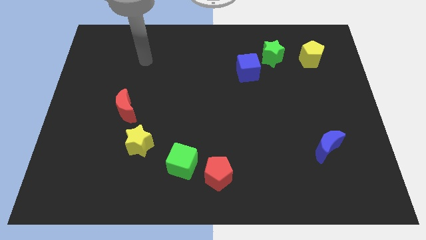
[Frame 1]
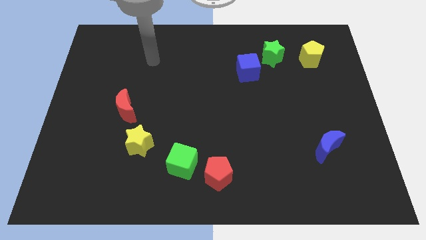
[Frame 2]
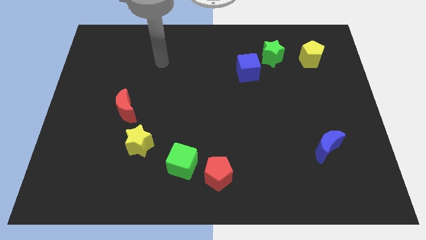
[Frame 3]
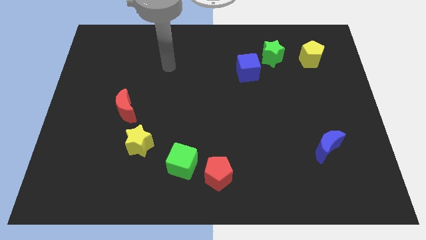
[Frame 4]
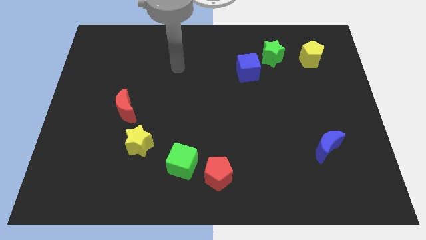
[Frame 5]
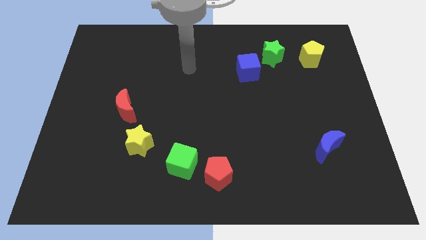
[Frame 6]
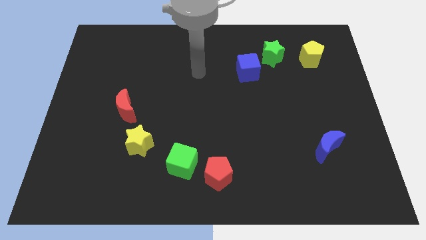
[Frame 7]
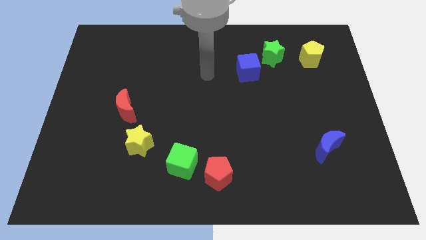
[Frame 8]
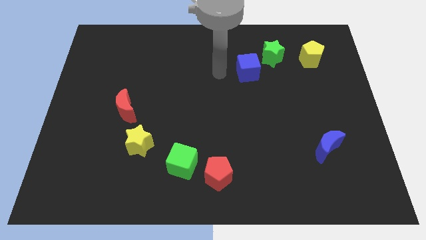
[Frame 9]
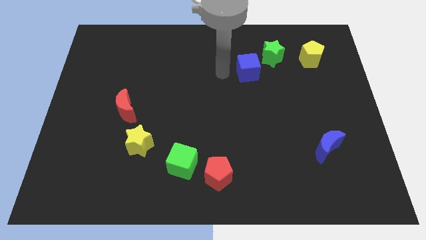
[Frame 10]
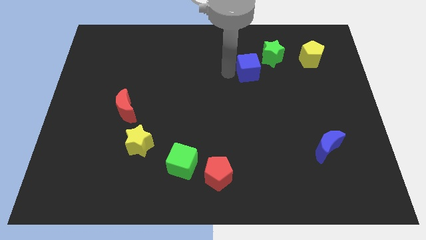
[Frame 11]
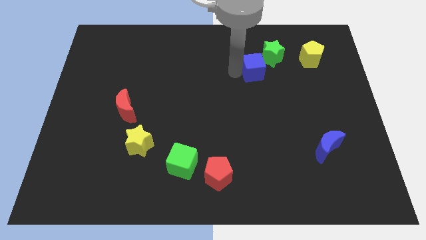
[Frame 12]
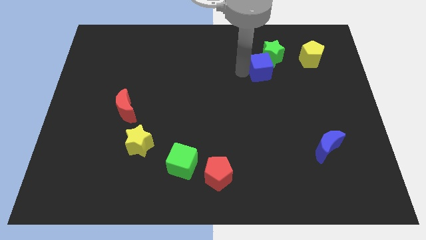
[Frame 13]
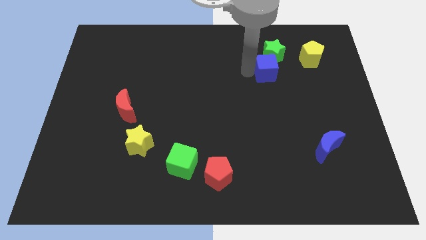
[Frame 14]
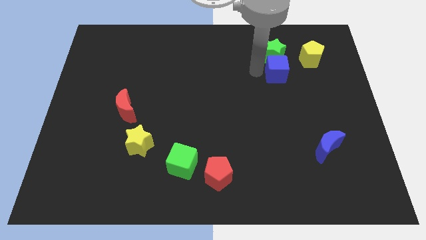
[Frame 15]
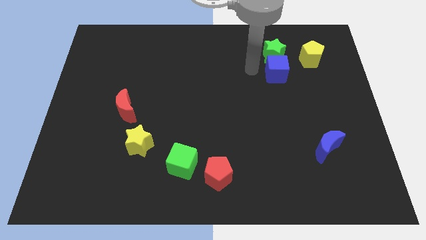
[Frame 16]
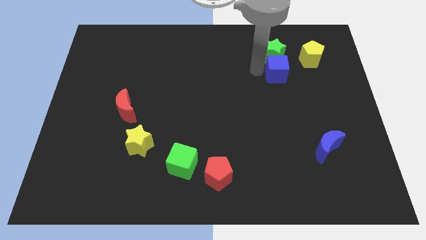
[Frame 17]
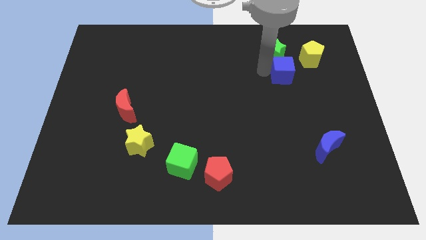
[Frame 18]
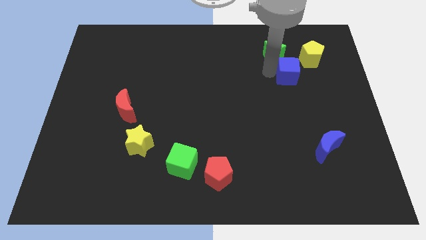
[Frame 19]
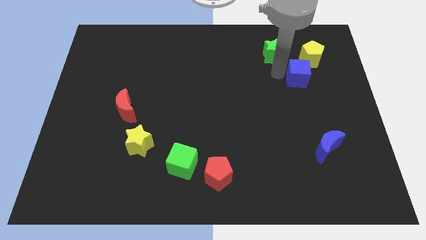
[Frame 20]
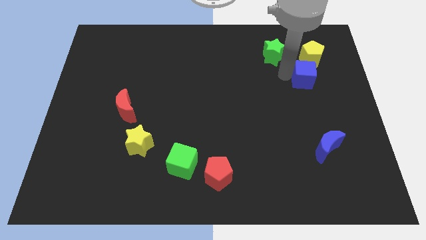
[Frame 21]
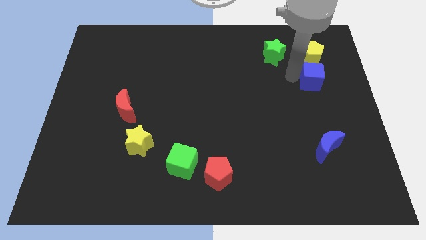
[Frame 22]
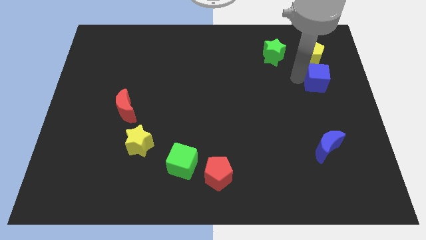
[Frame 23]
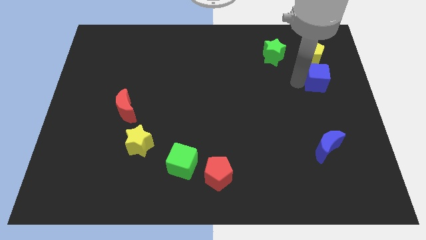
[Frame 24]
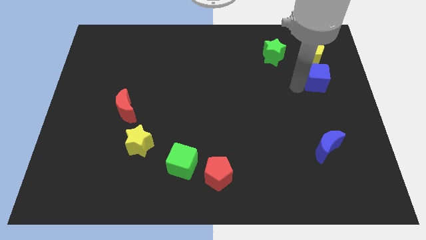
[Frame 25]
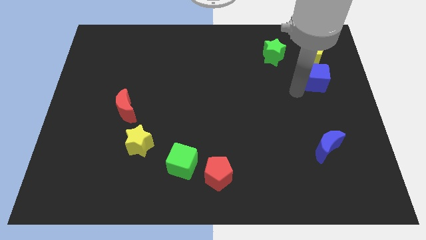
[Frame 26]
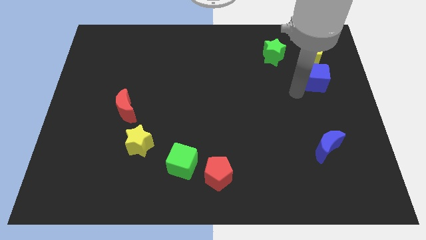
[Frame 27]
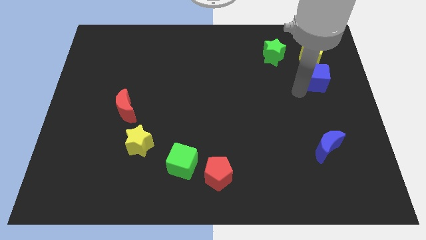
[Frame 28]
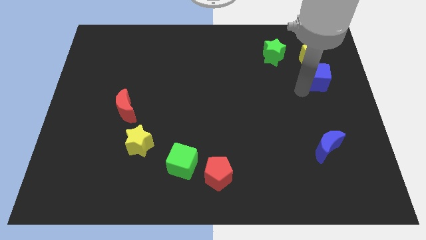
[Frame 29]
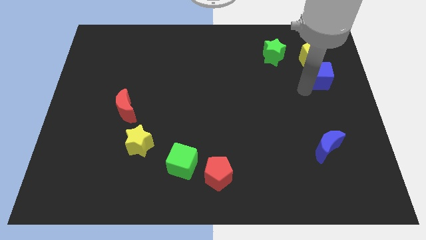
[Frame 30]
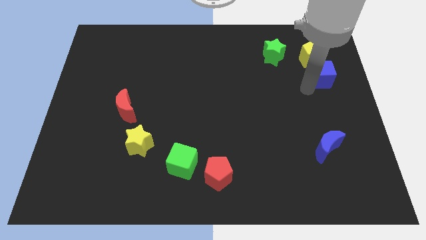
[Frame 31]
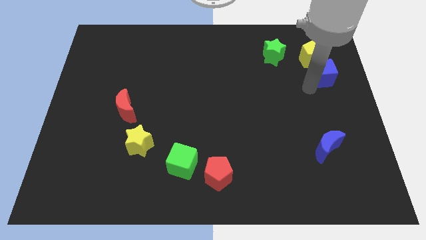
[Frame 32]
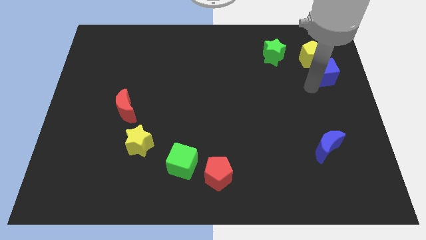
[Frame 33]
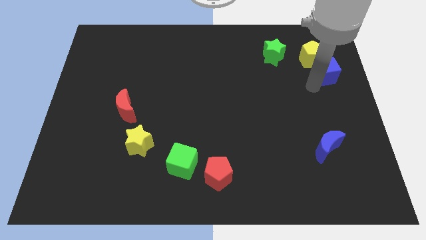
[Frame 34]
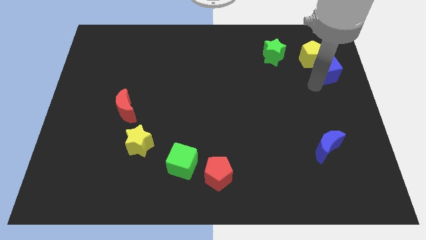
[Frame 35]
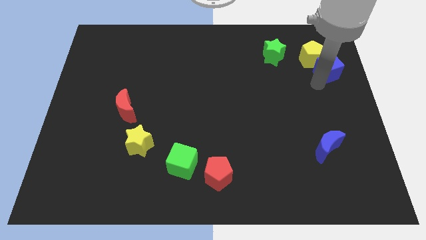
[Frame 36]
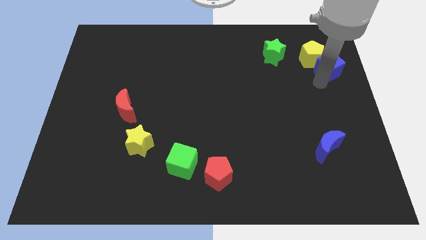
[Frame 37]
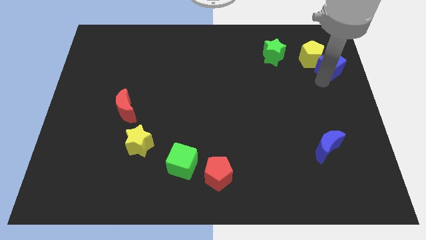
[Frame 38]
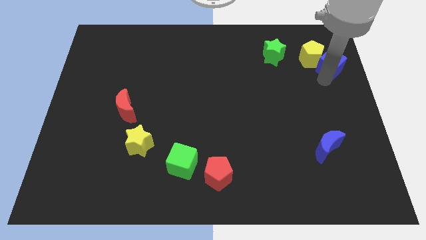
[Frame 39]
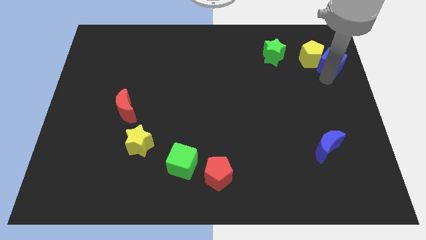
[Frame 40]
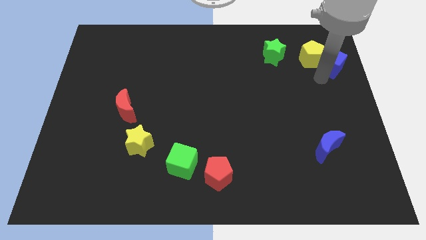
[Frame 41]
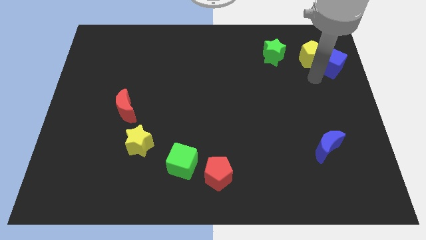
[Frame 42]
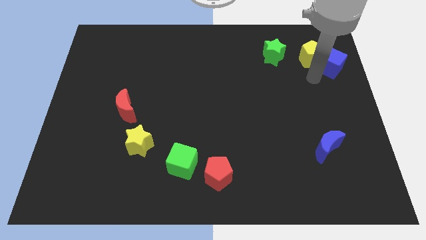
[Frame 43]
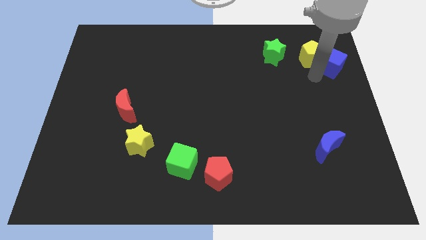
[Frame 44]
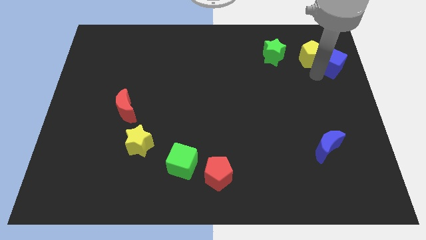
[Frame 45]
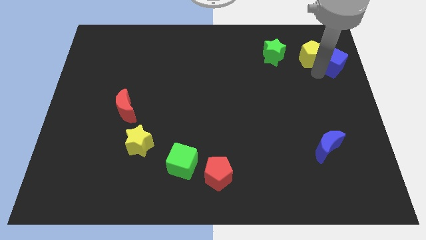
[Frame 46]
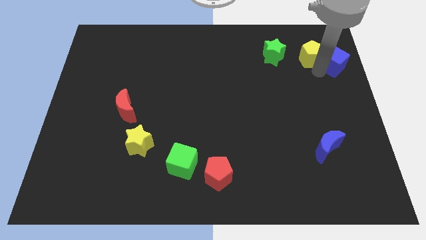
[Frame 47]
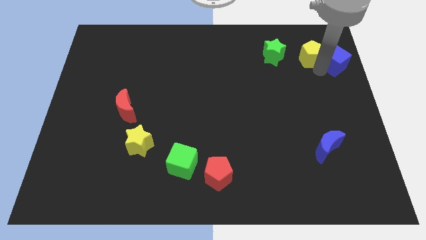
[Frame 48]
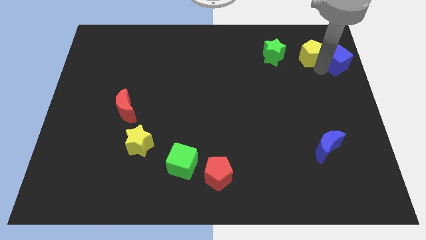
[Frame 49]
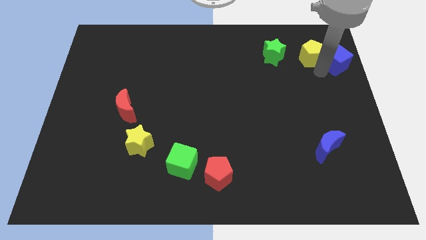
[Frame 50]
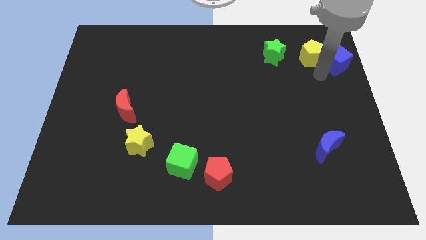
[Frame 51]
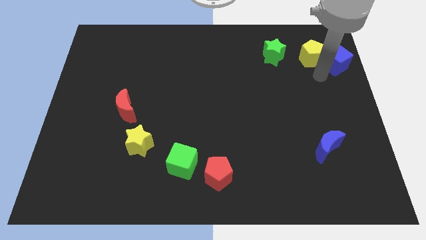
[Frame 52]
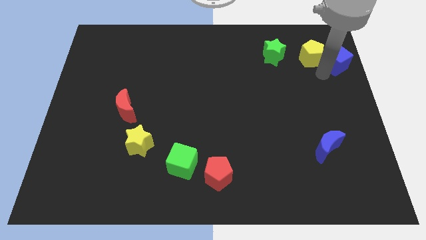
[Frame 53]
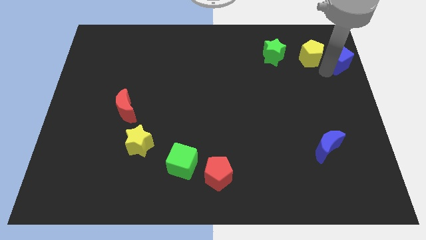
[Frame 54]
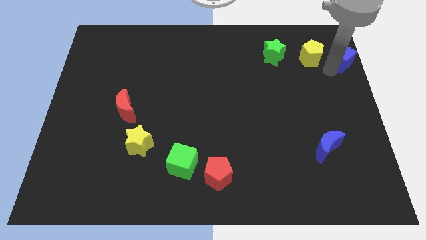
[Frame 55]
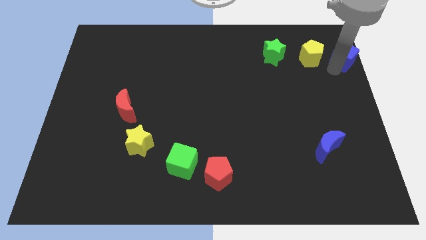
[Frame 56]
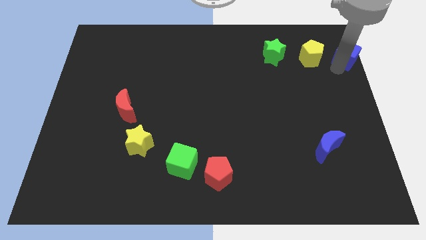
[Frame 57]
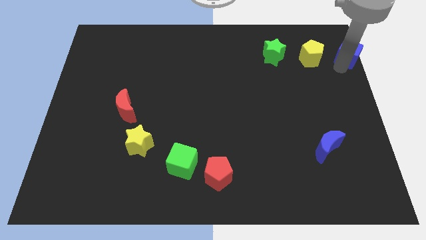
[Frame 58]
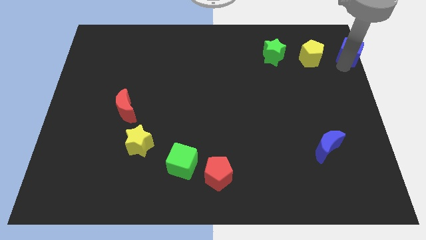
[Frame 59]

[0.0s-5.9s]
put the blue cube to the top right of the board

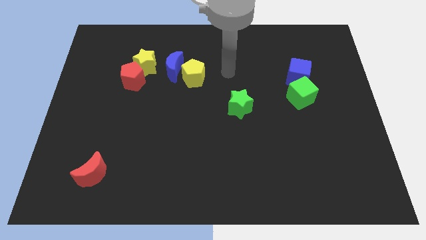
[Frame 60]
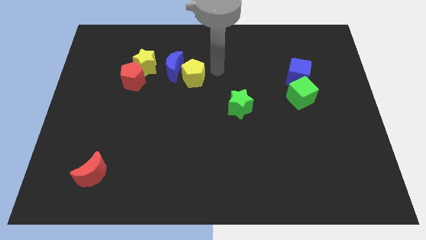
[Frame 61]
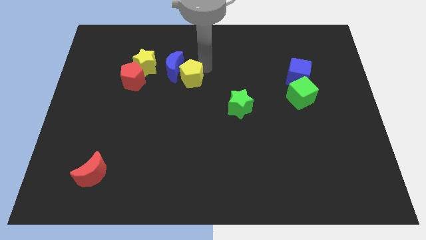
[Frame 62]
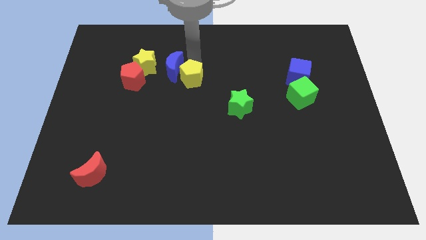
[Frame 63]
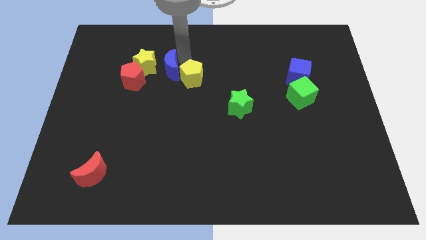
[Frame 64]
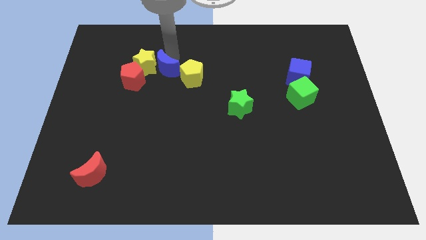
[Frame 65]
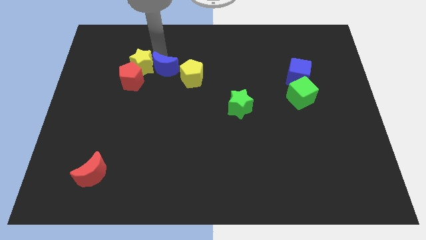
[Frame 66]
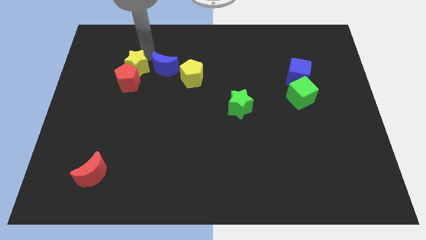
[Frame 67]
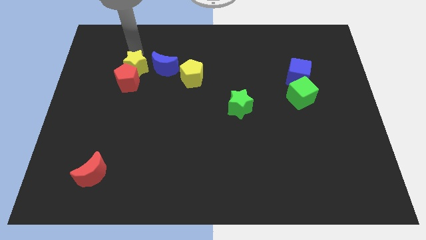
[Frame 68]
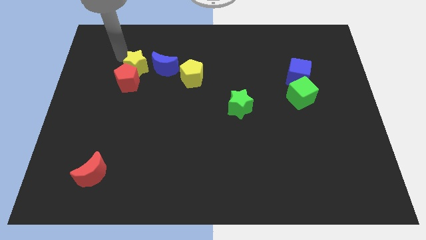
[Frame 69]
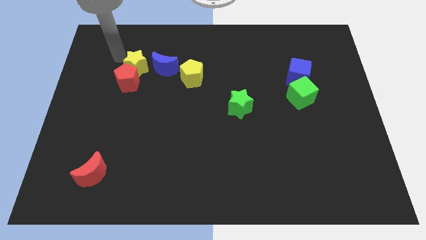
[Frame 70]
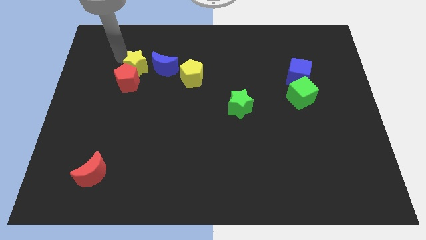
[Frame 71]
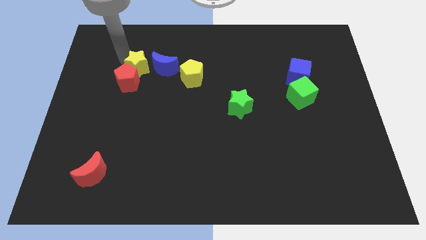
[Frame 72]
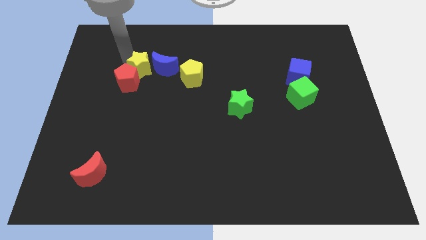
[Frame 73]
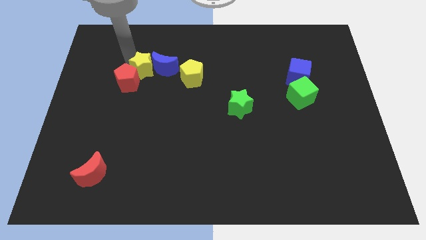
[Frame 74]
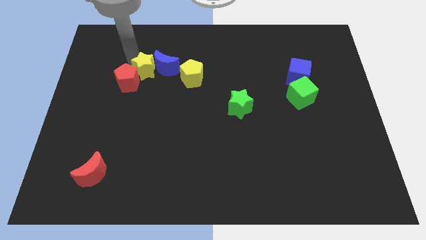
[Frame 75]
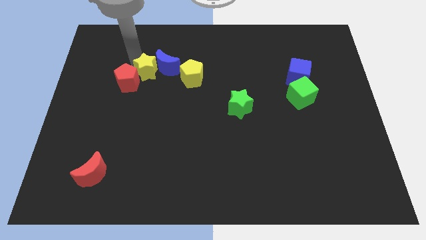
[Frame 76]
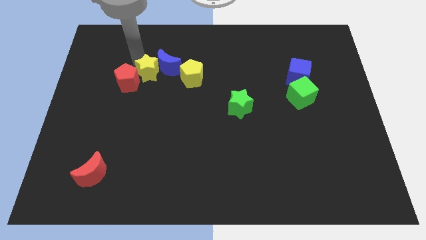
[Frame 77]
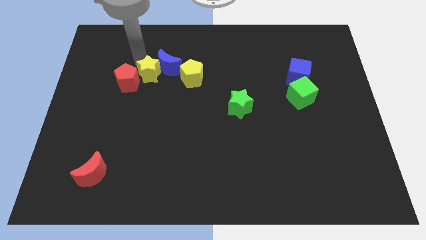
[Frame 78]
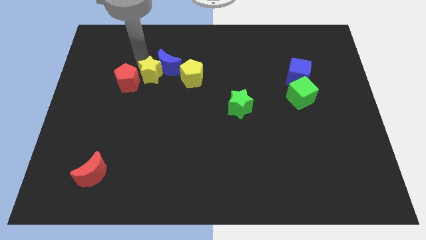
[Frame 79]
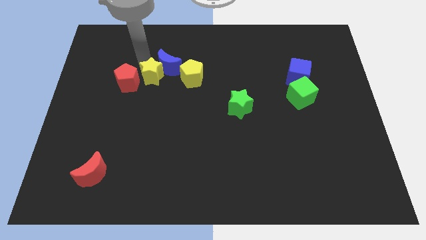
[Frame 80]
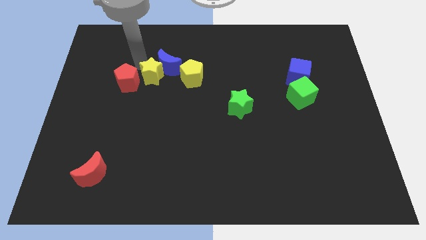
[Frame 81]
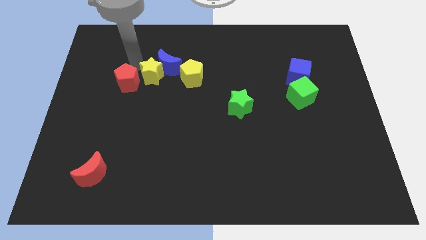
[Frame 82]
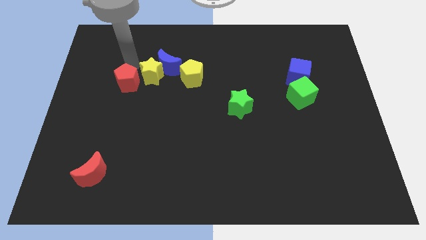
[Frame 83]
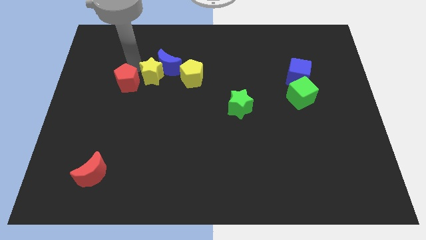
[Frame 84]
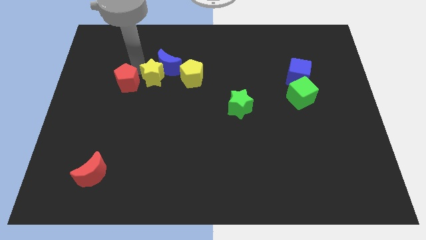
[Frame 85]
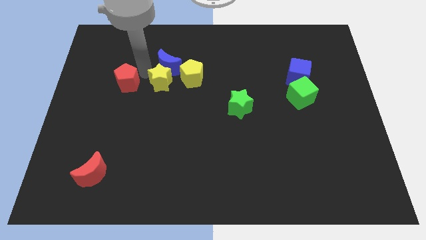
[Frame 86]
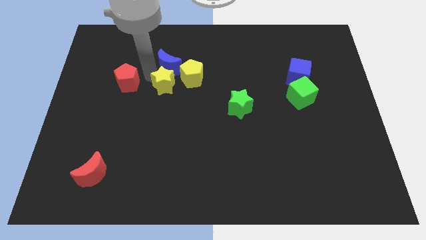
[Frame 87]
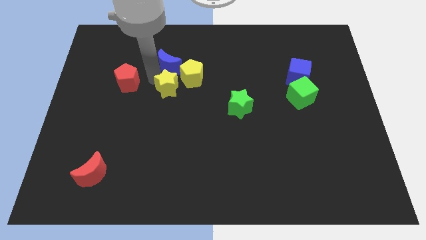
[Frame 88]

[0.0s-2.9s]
move the yellow star to the center
